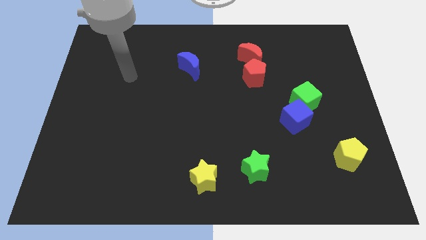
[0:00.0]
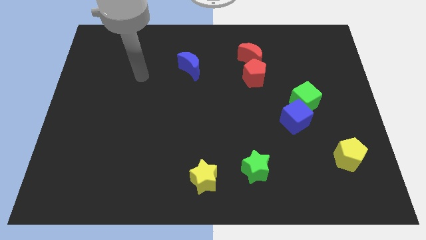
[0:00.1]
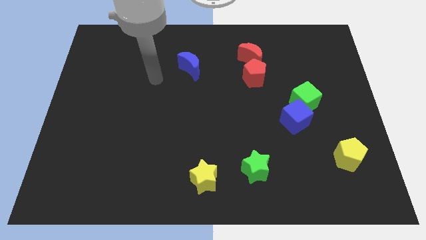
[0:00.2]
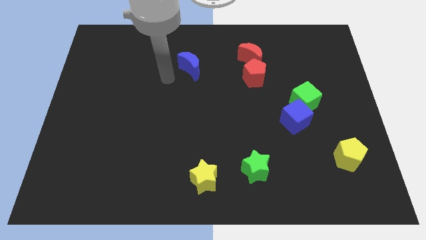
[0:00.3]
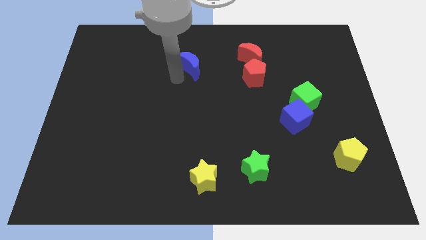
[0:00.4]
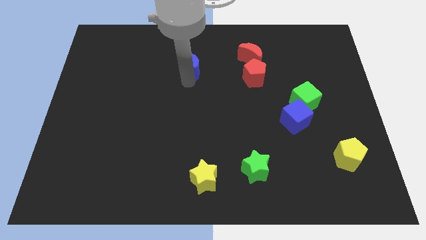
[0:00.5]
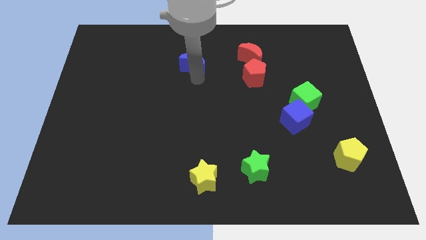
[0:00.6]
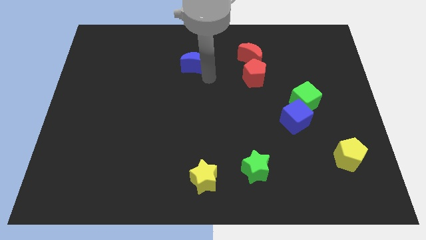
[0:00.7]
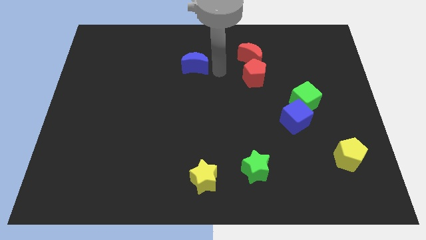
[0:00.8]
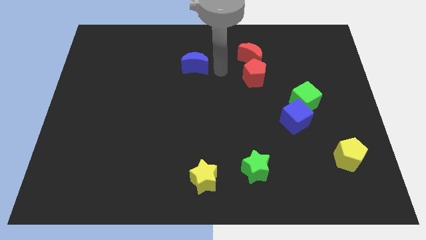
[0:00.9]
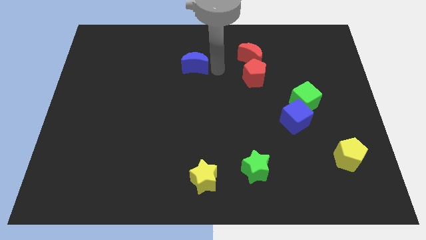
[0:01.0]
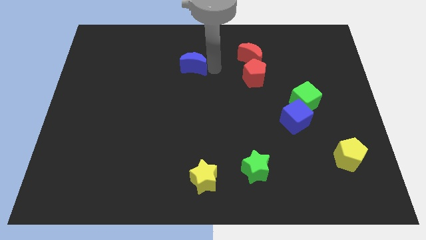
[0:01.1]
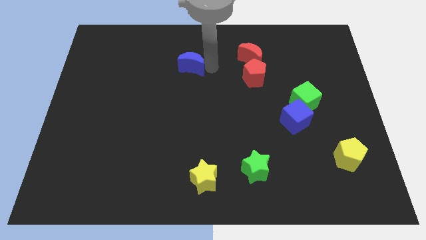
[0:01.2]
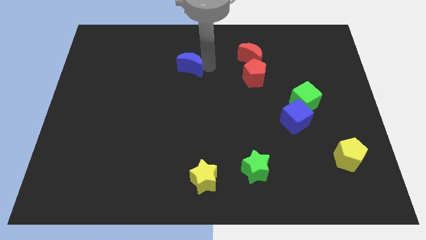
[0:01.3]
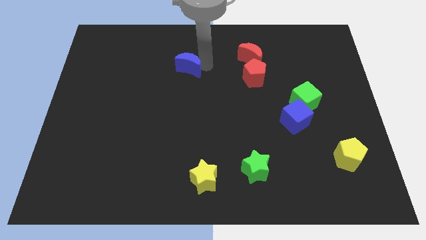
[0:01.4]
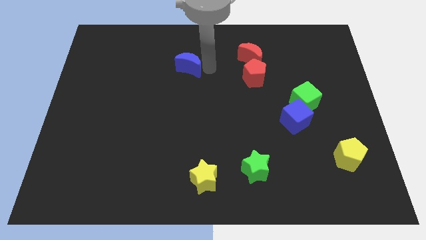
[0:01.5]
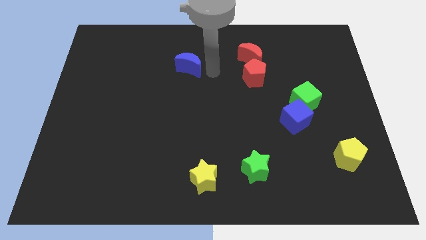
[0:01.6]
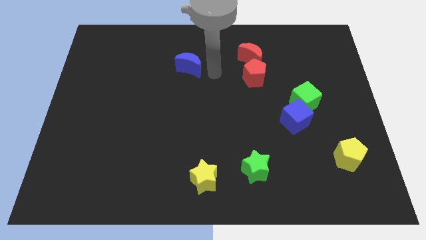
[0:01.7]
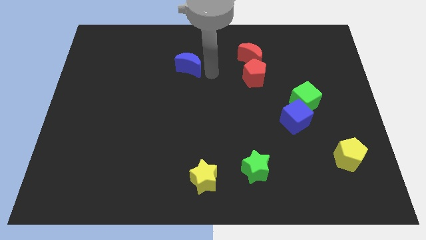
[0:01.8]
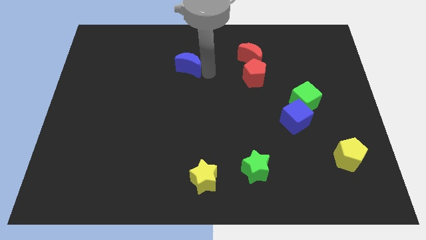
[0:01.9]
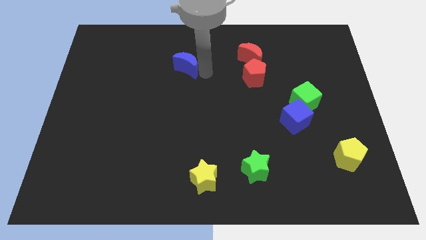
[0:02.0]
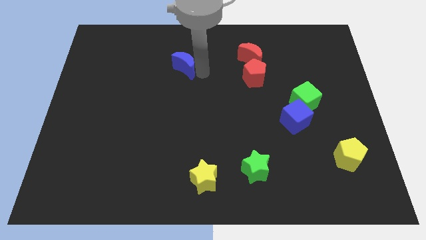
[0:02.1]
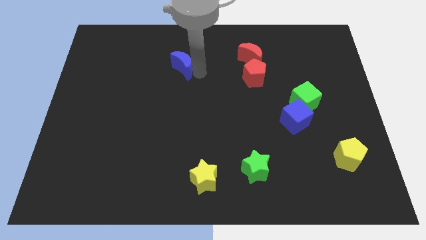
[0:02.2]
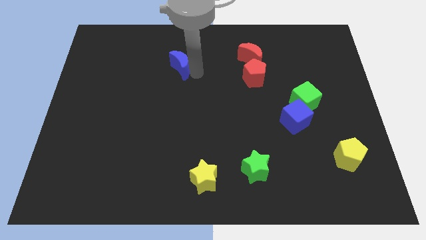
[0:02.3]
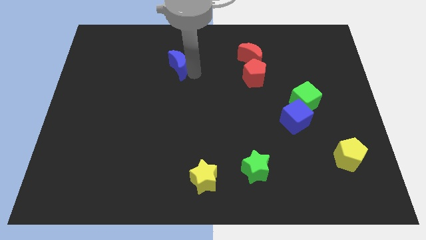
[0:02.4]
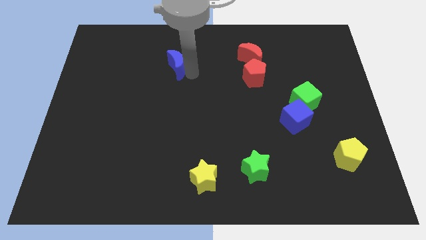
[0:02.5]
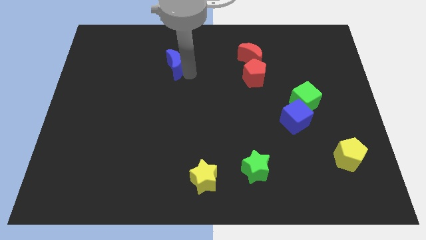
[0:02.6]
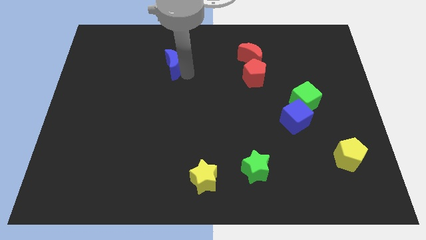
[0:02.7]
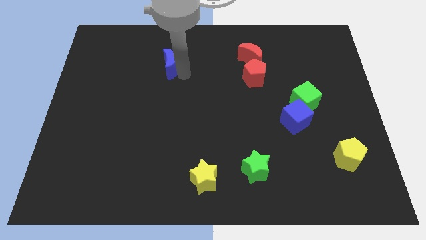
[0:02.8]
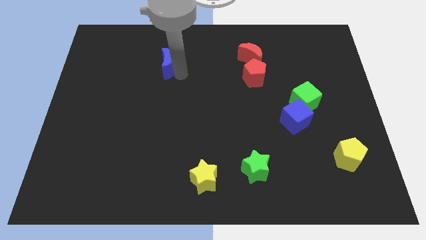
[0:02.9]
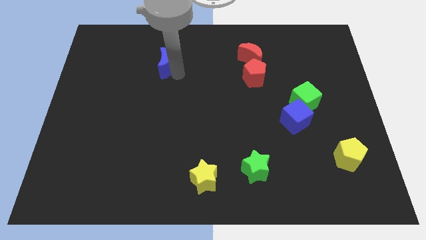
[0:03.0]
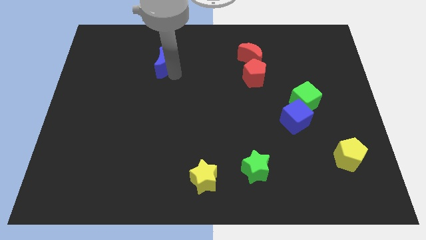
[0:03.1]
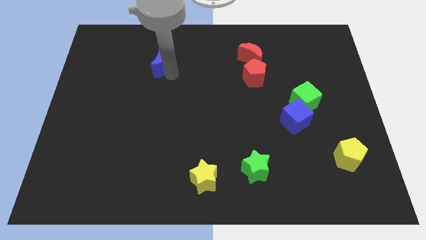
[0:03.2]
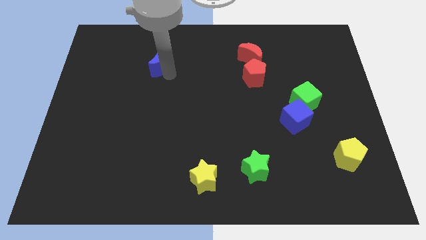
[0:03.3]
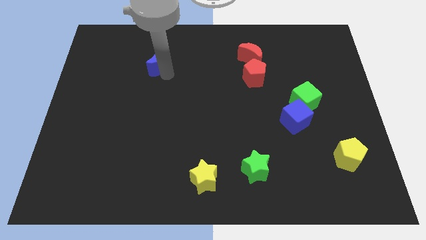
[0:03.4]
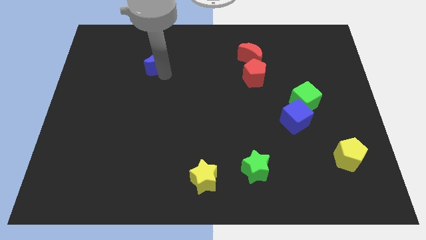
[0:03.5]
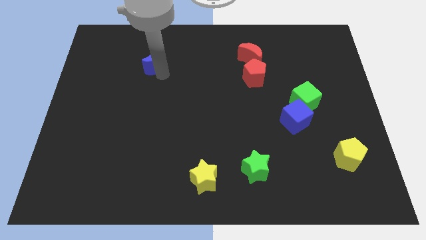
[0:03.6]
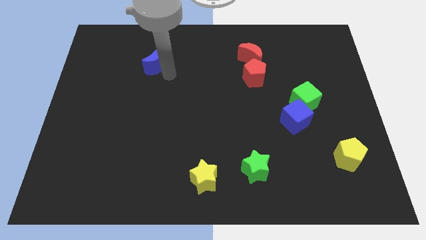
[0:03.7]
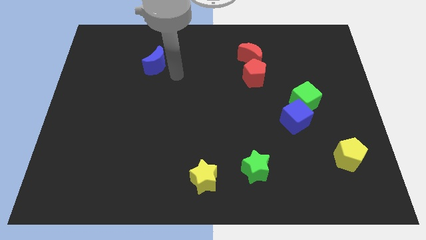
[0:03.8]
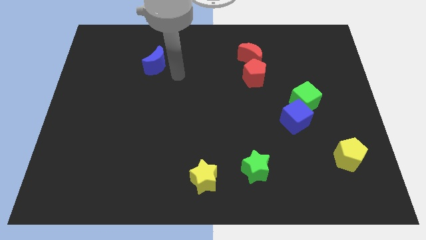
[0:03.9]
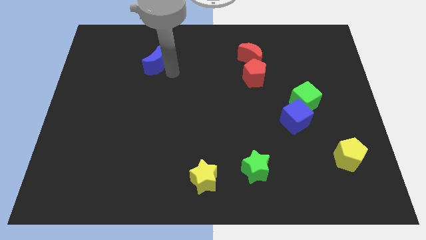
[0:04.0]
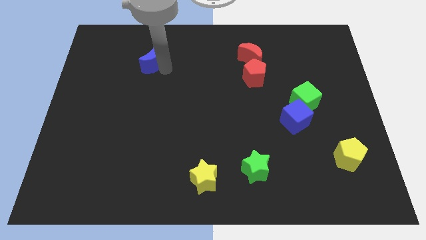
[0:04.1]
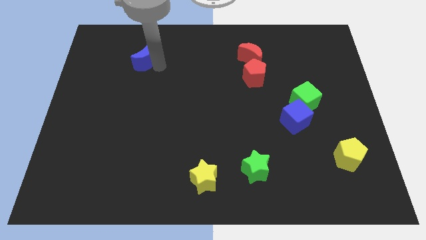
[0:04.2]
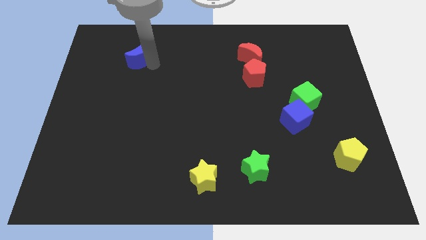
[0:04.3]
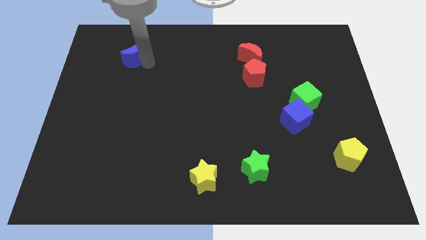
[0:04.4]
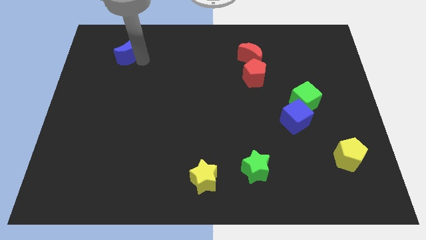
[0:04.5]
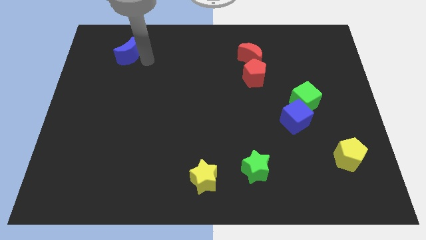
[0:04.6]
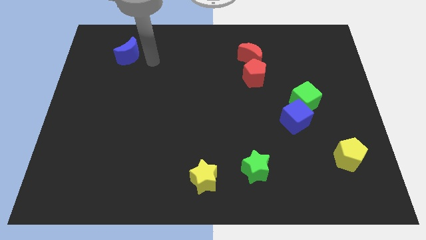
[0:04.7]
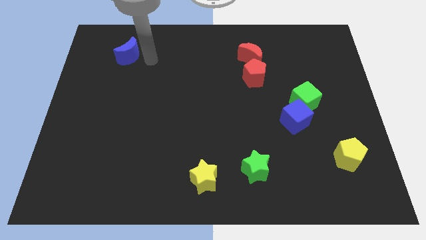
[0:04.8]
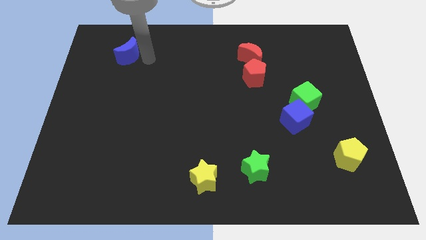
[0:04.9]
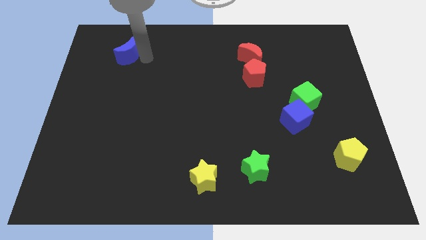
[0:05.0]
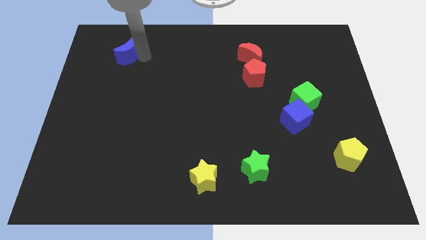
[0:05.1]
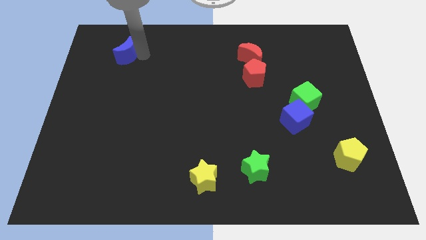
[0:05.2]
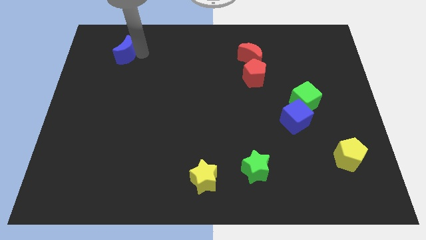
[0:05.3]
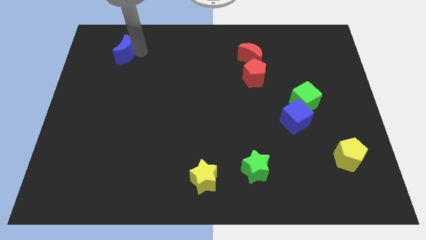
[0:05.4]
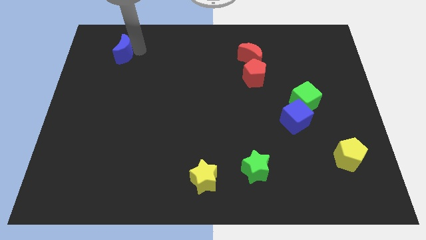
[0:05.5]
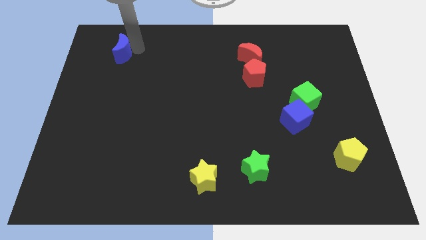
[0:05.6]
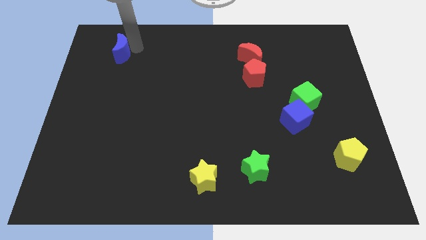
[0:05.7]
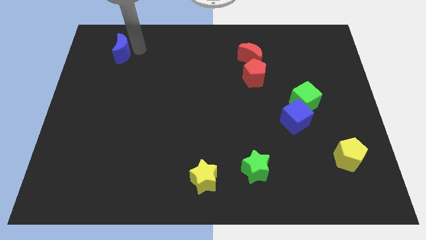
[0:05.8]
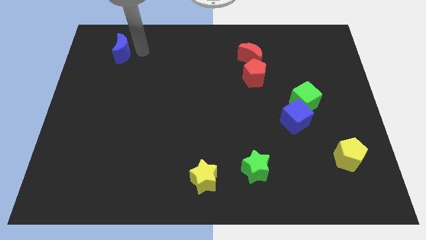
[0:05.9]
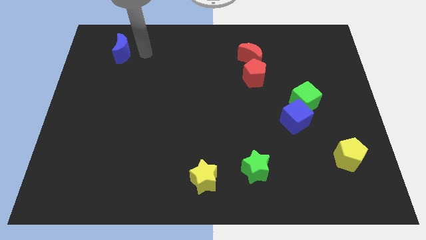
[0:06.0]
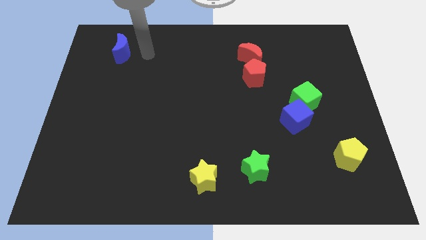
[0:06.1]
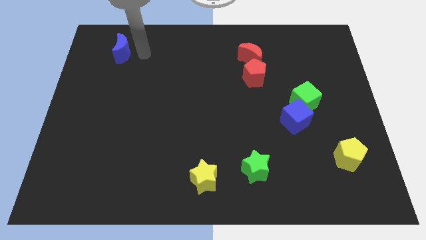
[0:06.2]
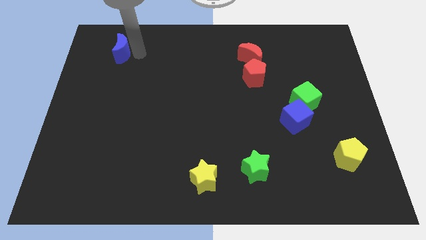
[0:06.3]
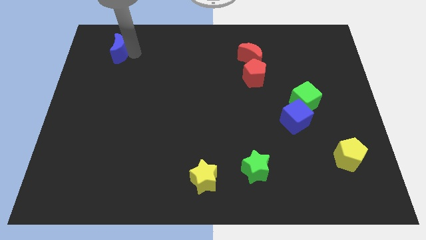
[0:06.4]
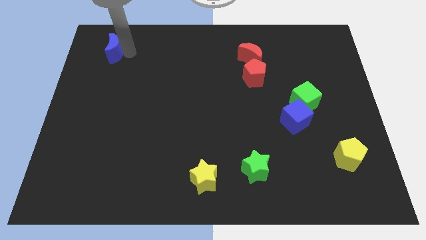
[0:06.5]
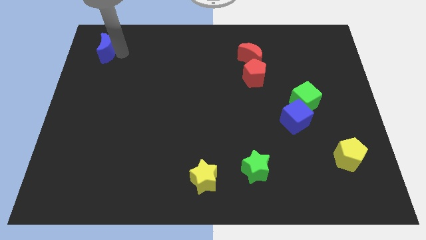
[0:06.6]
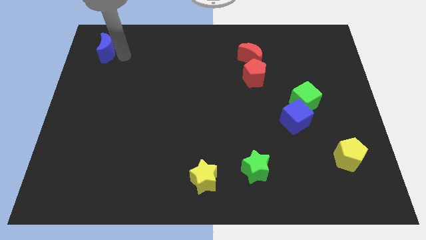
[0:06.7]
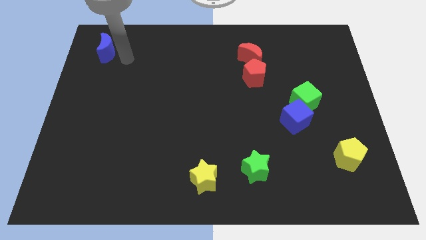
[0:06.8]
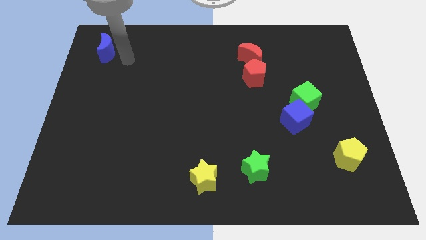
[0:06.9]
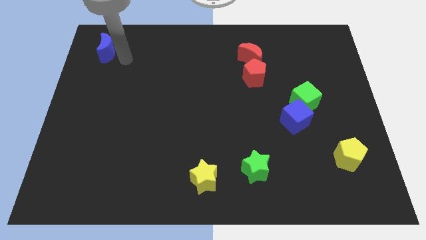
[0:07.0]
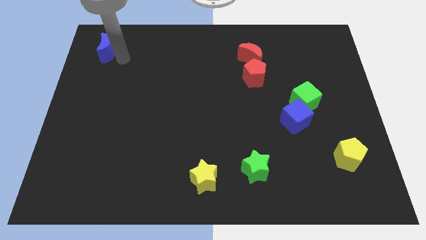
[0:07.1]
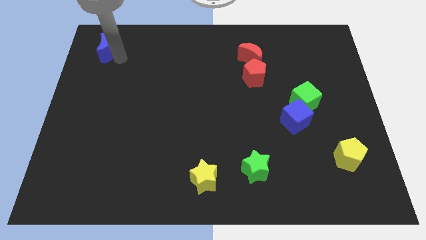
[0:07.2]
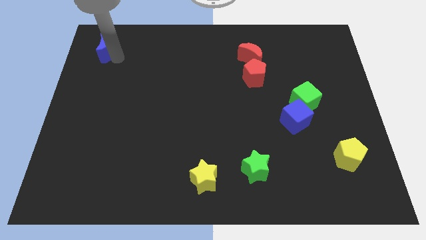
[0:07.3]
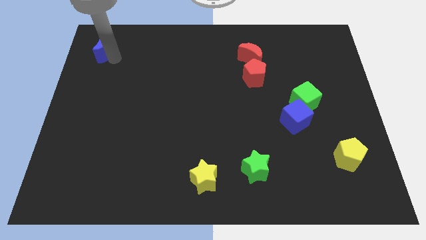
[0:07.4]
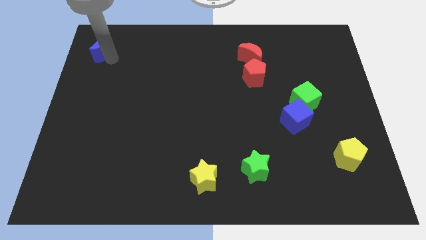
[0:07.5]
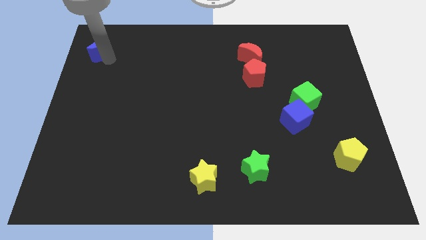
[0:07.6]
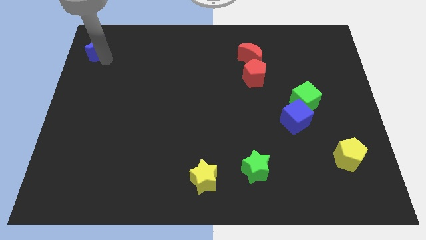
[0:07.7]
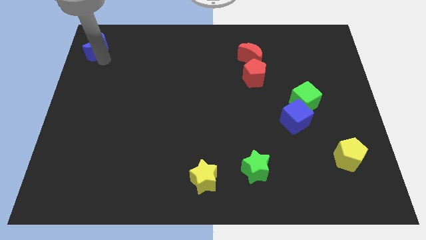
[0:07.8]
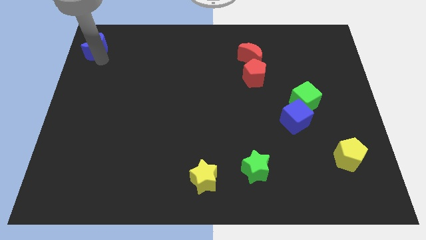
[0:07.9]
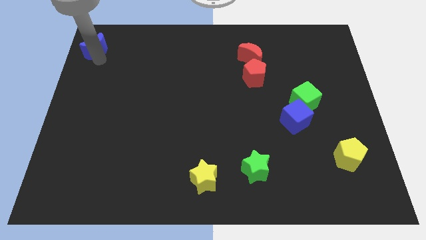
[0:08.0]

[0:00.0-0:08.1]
put the blue moon to the top left corner
